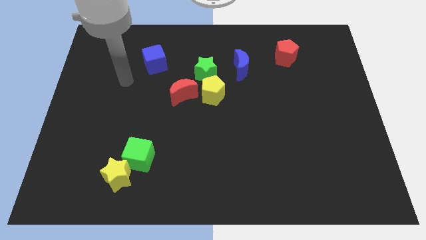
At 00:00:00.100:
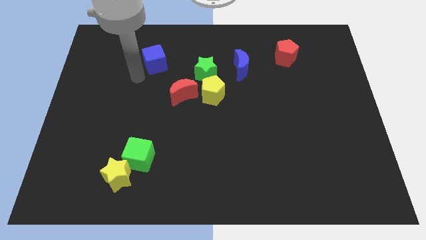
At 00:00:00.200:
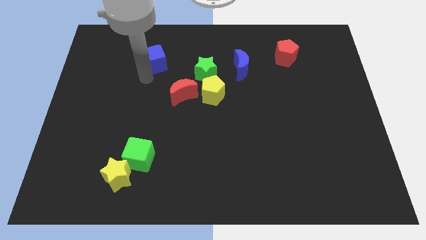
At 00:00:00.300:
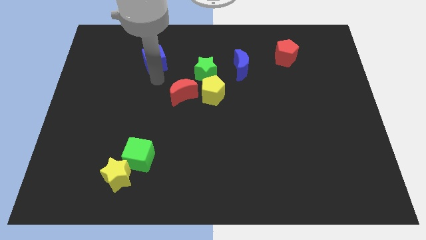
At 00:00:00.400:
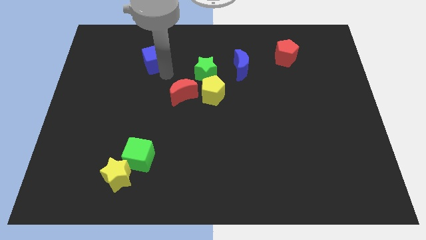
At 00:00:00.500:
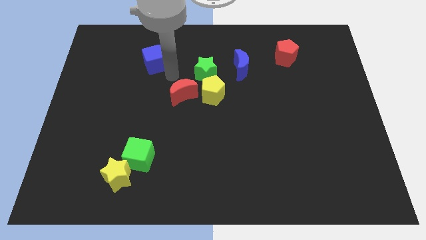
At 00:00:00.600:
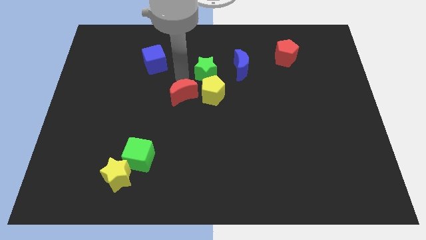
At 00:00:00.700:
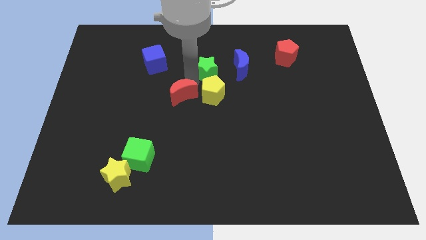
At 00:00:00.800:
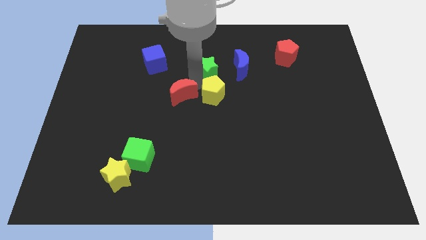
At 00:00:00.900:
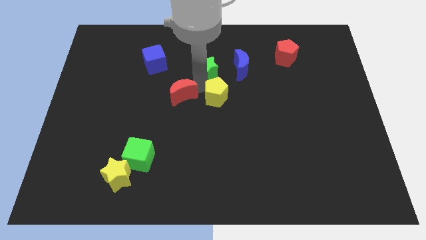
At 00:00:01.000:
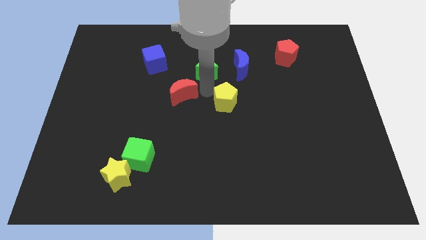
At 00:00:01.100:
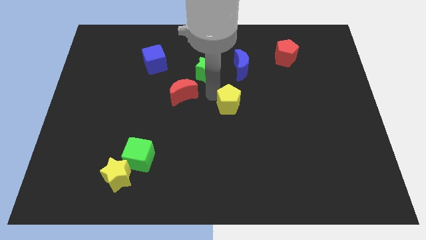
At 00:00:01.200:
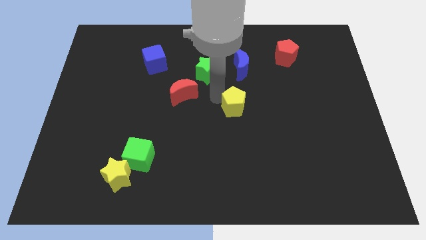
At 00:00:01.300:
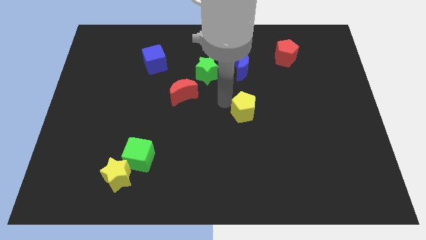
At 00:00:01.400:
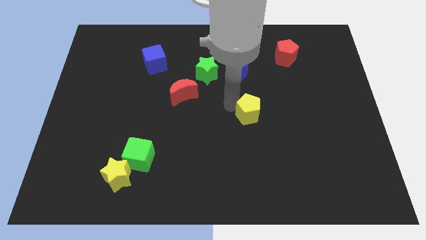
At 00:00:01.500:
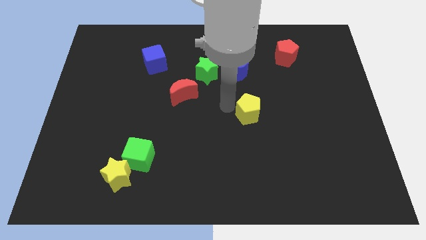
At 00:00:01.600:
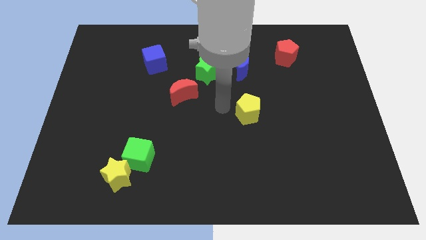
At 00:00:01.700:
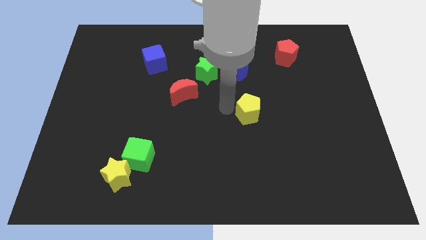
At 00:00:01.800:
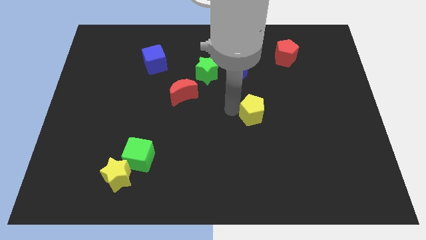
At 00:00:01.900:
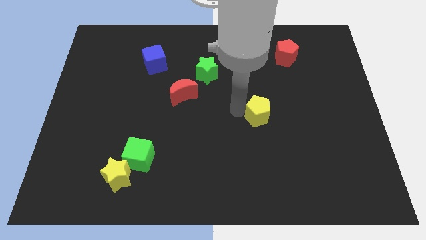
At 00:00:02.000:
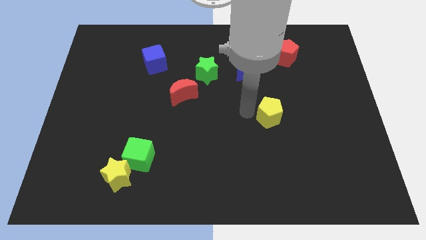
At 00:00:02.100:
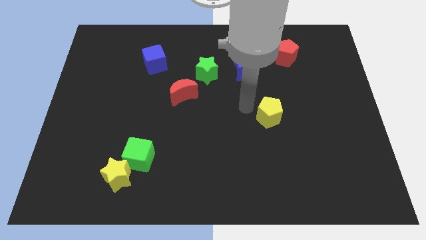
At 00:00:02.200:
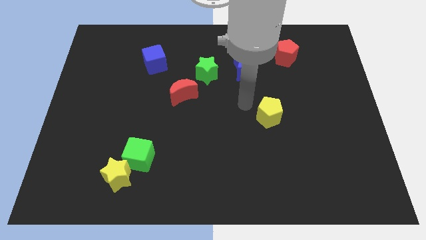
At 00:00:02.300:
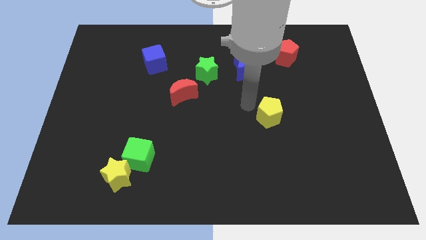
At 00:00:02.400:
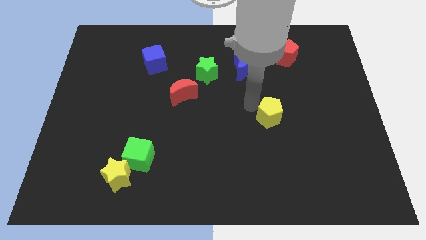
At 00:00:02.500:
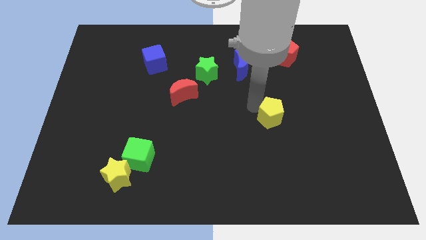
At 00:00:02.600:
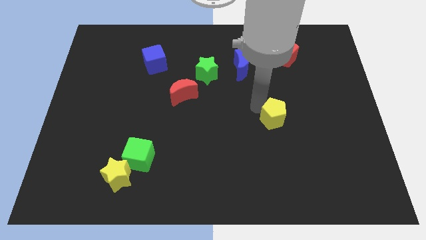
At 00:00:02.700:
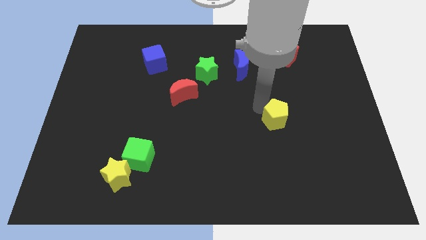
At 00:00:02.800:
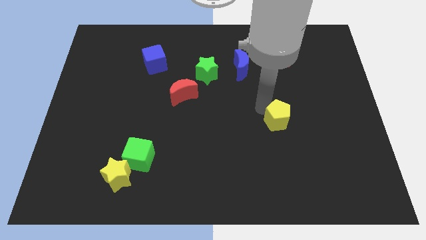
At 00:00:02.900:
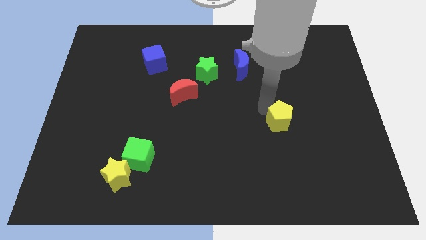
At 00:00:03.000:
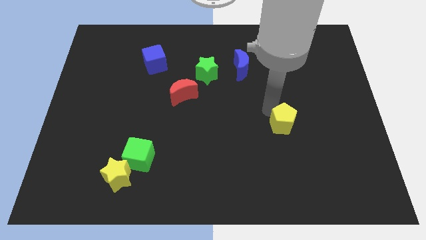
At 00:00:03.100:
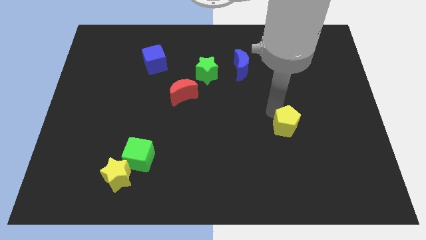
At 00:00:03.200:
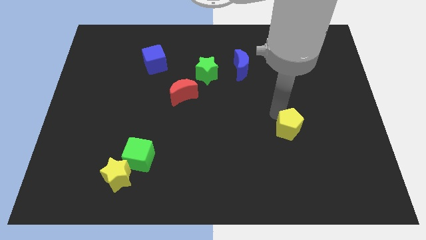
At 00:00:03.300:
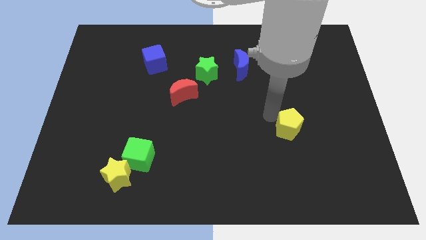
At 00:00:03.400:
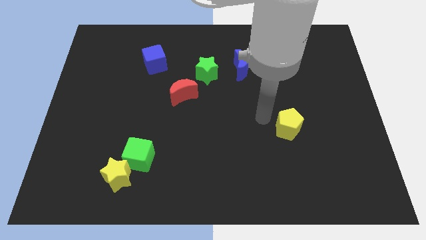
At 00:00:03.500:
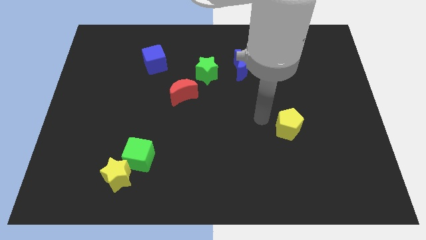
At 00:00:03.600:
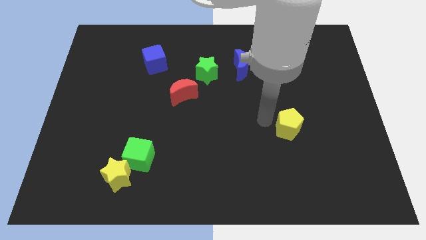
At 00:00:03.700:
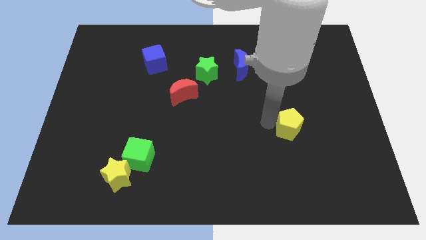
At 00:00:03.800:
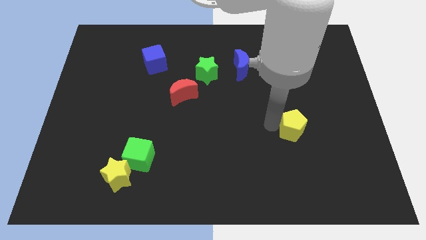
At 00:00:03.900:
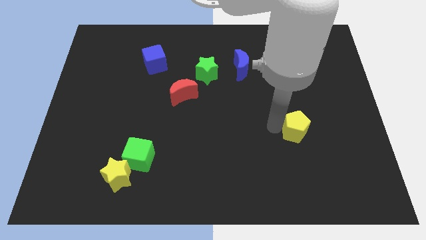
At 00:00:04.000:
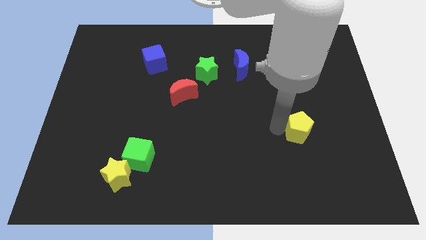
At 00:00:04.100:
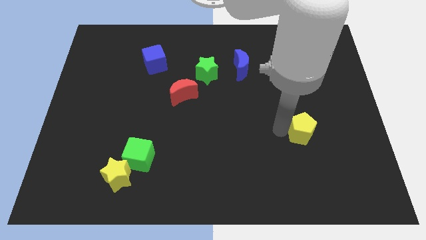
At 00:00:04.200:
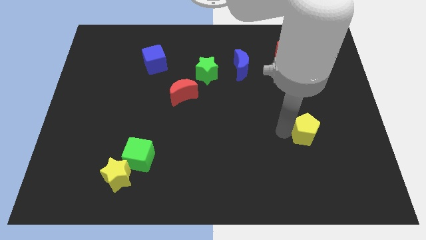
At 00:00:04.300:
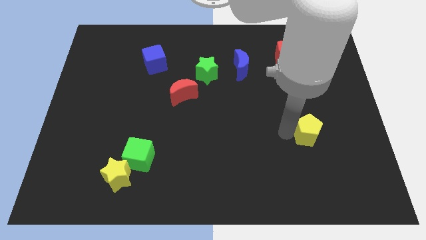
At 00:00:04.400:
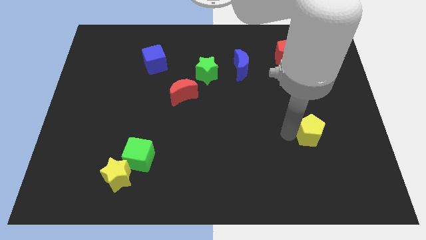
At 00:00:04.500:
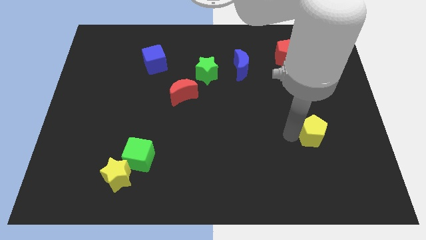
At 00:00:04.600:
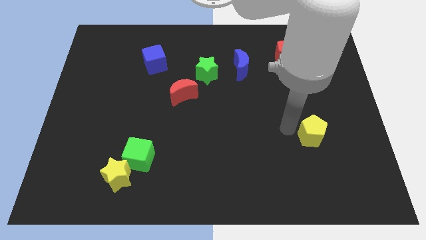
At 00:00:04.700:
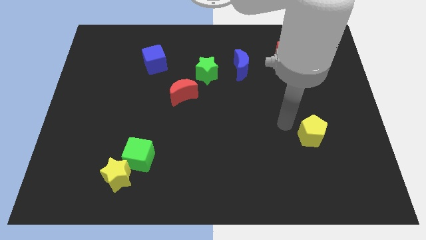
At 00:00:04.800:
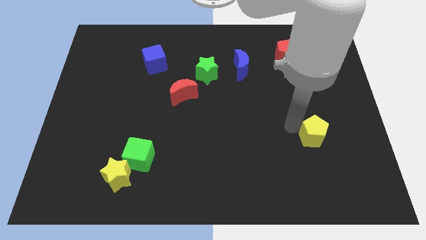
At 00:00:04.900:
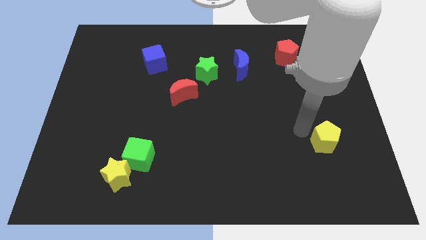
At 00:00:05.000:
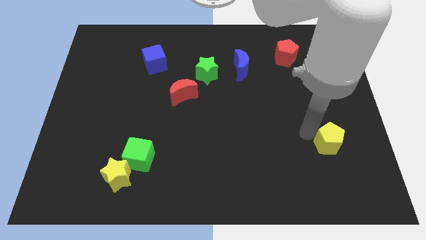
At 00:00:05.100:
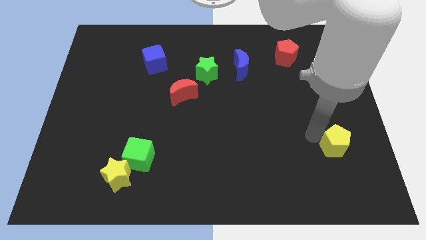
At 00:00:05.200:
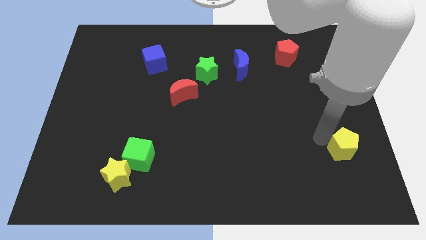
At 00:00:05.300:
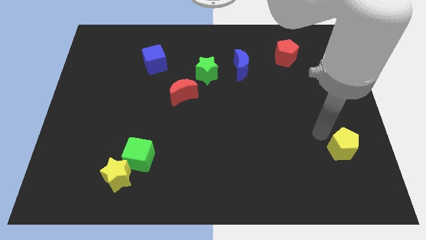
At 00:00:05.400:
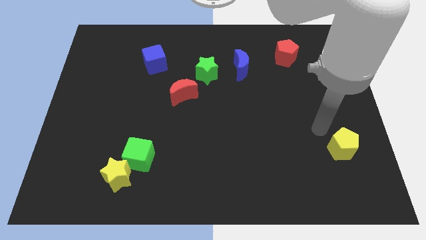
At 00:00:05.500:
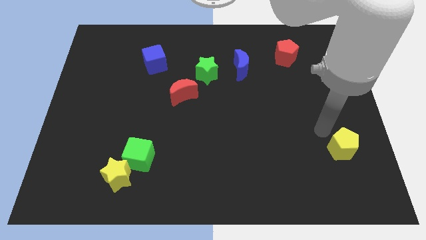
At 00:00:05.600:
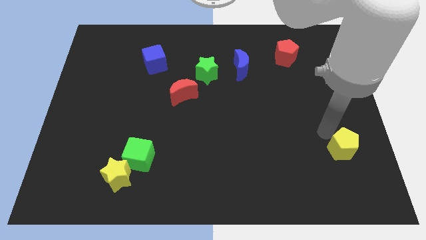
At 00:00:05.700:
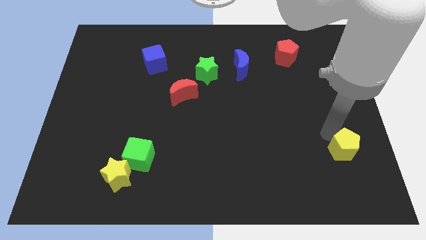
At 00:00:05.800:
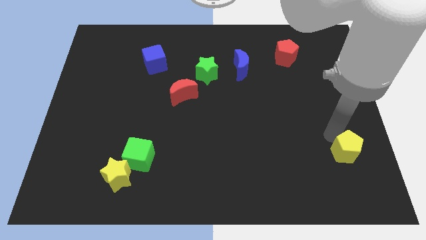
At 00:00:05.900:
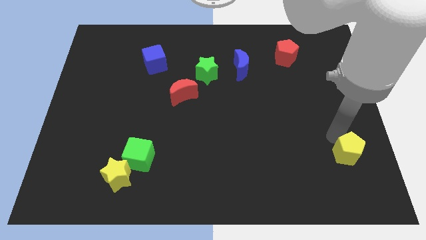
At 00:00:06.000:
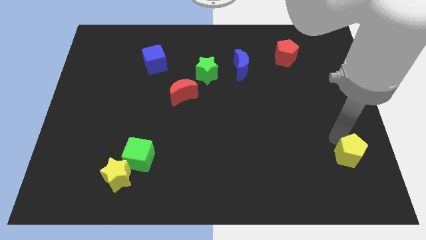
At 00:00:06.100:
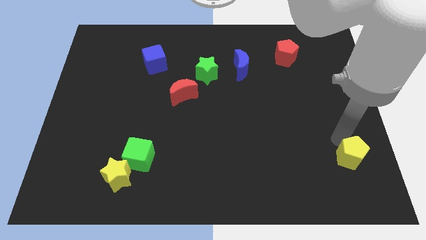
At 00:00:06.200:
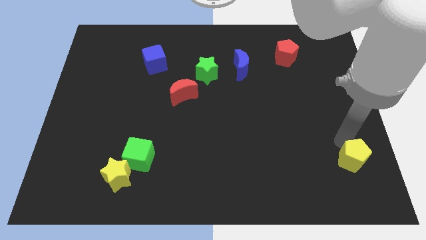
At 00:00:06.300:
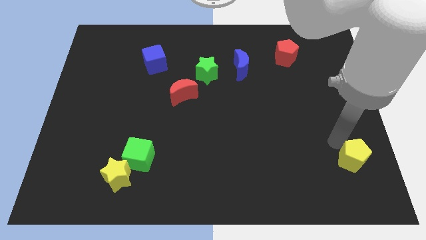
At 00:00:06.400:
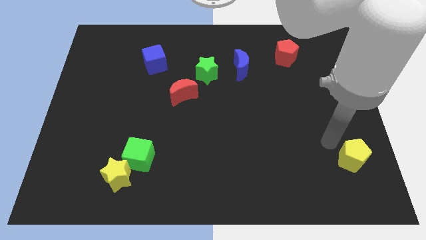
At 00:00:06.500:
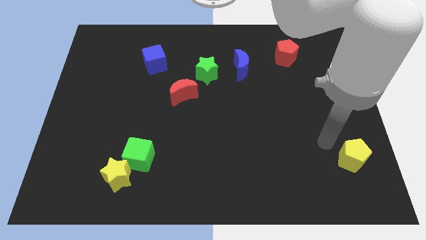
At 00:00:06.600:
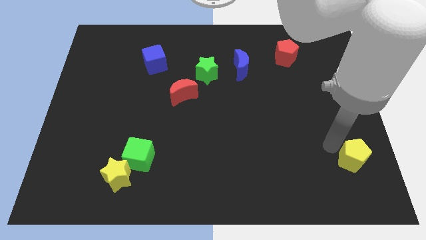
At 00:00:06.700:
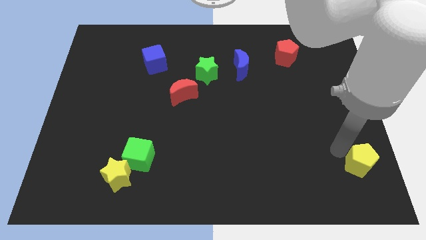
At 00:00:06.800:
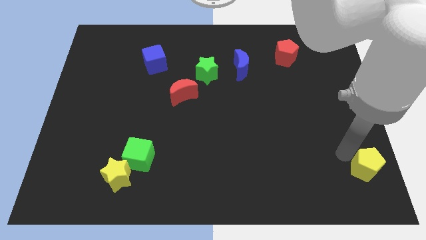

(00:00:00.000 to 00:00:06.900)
move the yellow pentagon to the bottom right
